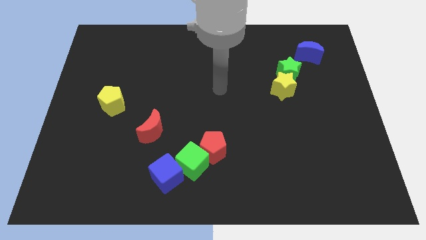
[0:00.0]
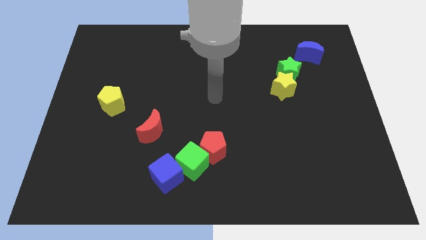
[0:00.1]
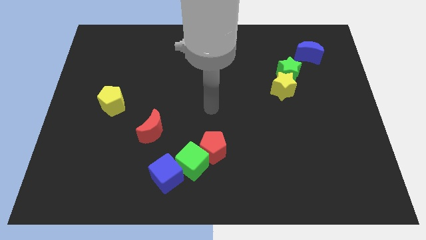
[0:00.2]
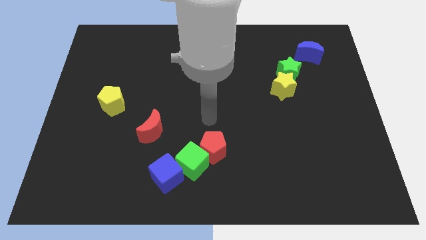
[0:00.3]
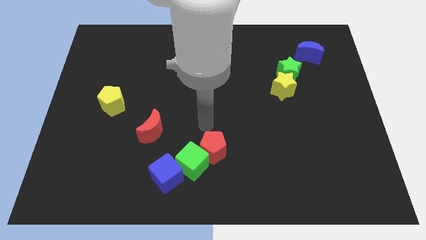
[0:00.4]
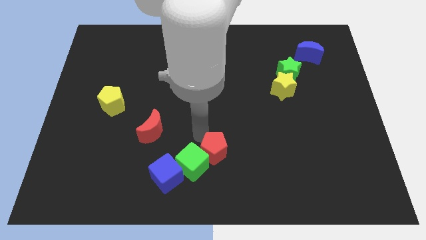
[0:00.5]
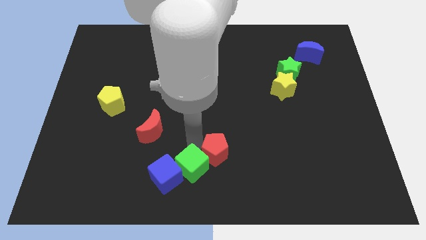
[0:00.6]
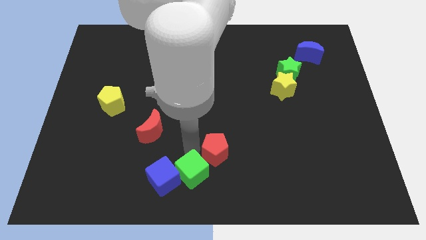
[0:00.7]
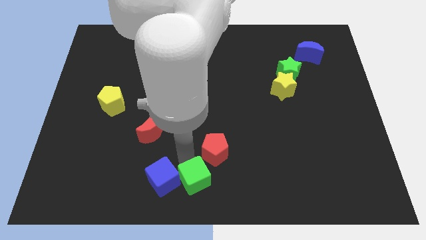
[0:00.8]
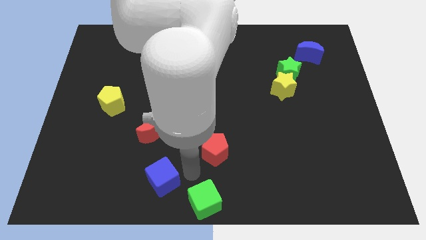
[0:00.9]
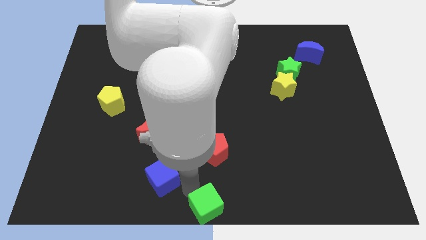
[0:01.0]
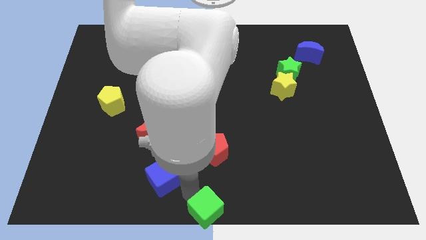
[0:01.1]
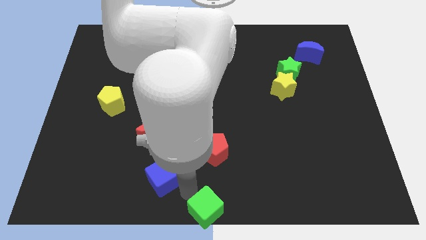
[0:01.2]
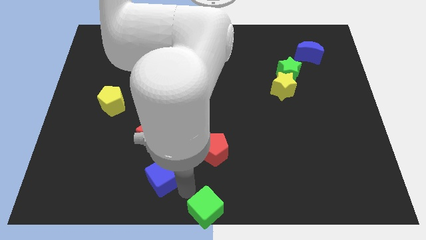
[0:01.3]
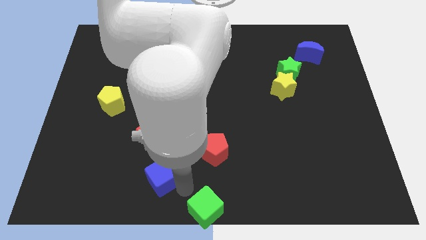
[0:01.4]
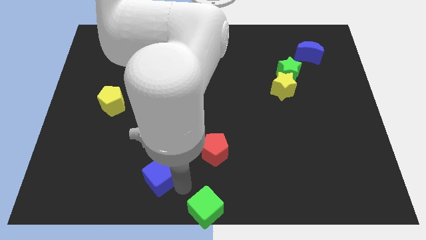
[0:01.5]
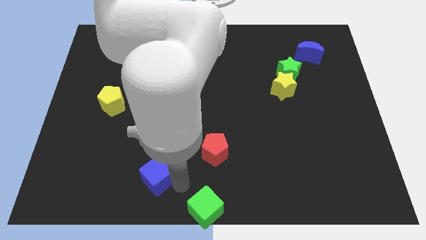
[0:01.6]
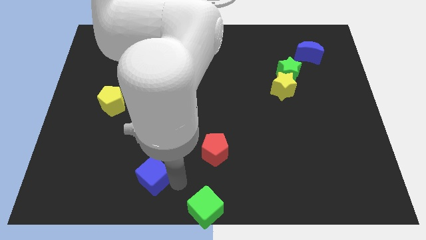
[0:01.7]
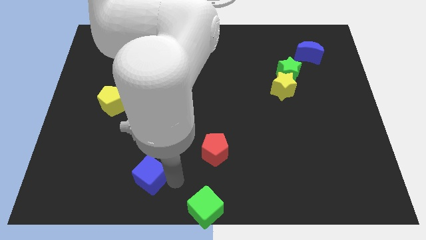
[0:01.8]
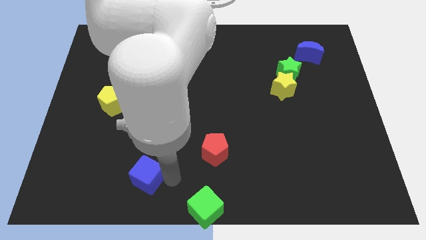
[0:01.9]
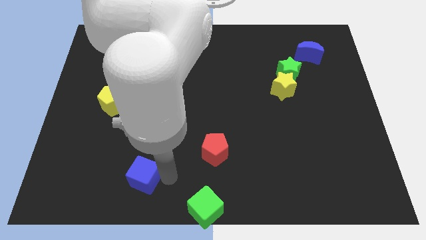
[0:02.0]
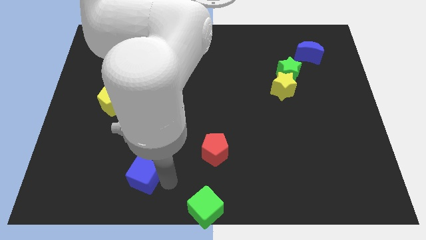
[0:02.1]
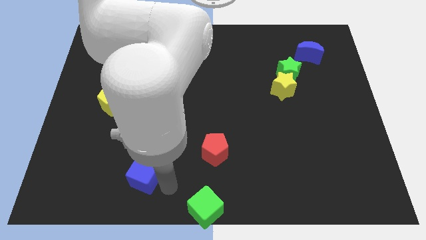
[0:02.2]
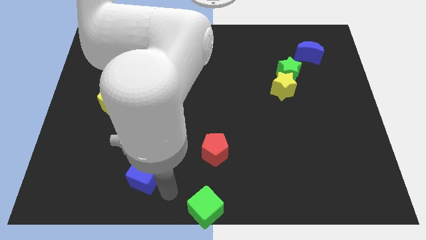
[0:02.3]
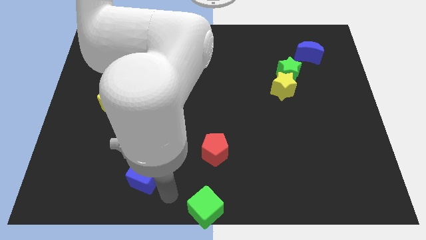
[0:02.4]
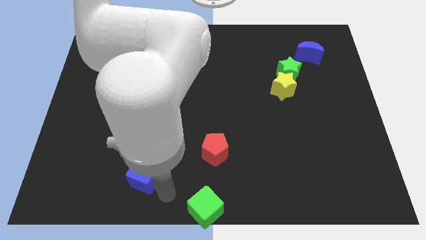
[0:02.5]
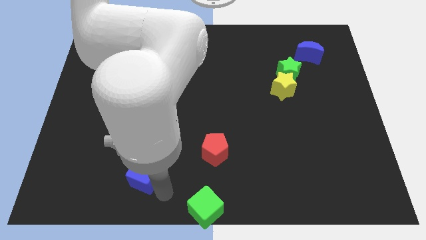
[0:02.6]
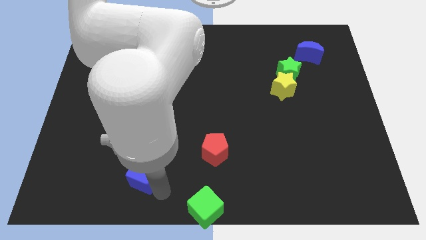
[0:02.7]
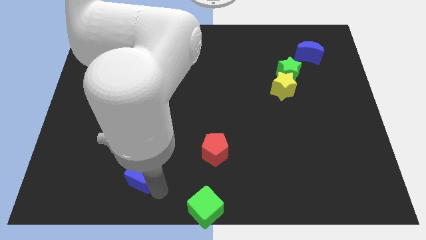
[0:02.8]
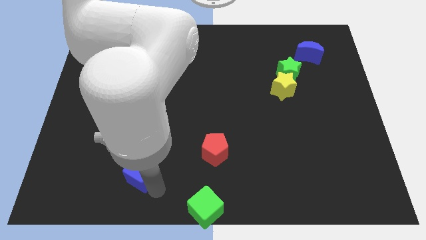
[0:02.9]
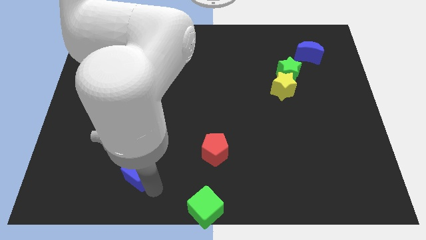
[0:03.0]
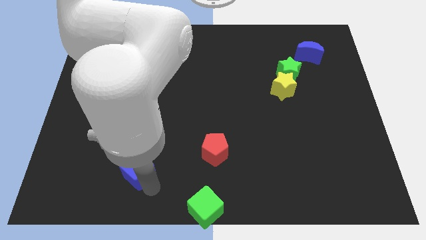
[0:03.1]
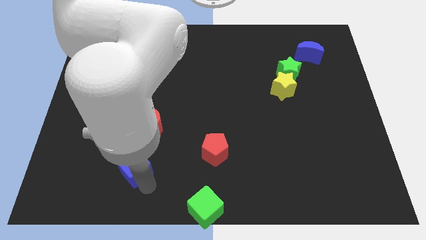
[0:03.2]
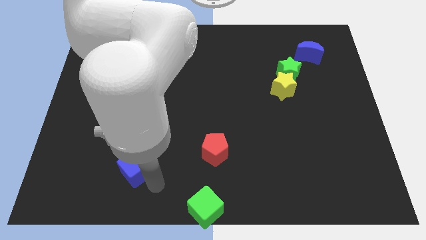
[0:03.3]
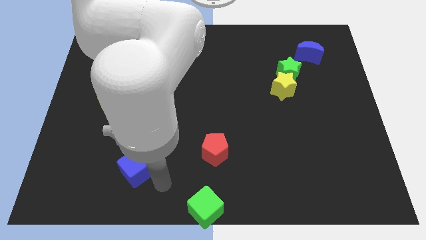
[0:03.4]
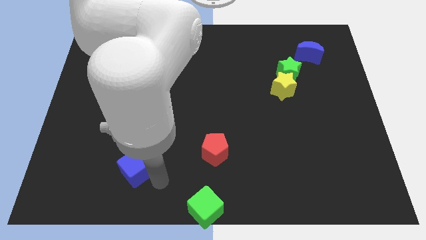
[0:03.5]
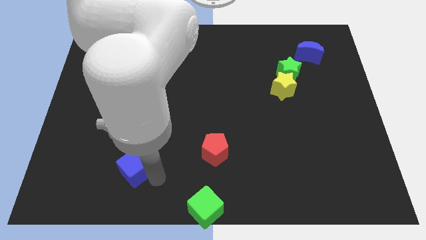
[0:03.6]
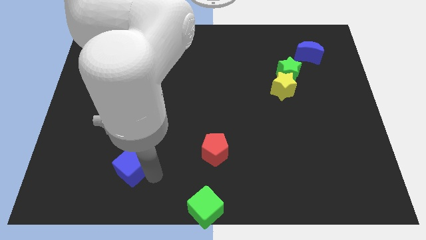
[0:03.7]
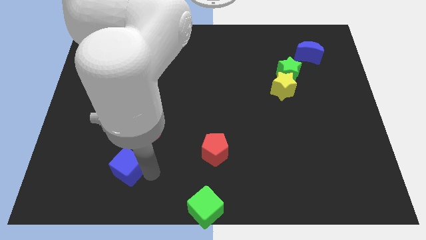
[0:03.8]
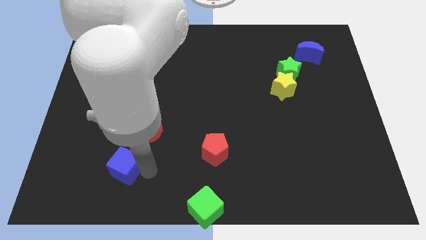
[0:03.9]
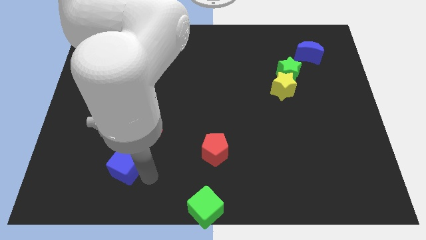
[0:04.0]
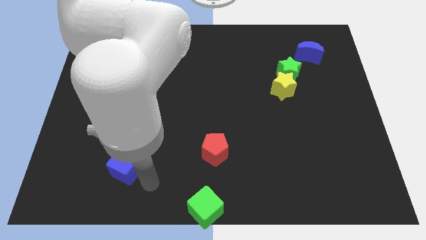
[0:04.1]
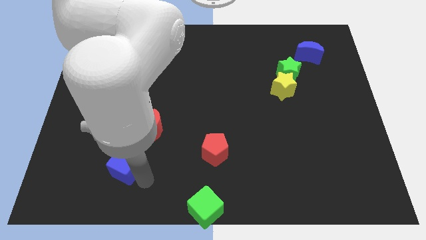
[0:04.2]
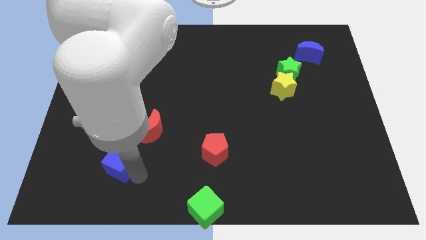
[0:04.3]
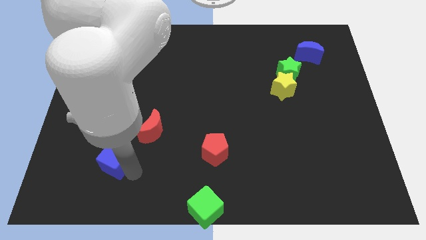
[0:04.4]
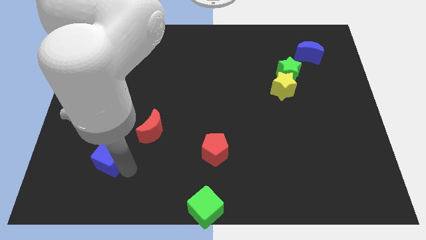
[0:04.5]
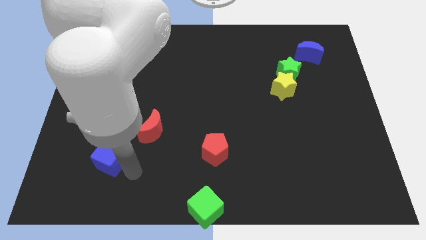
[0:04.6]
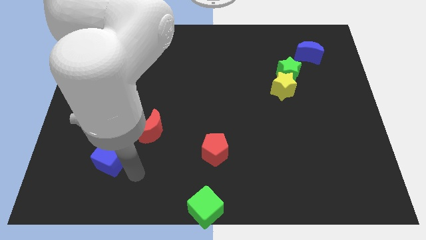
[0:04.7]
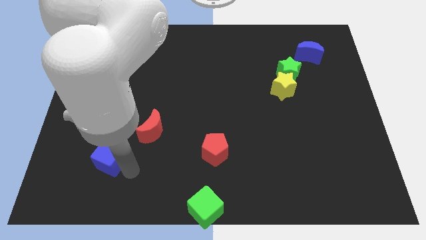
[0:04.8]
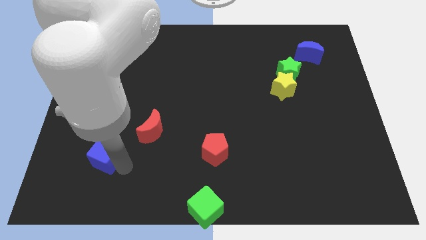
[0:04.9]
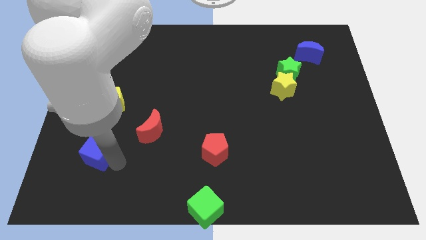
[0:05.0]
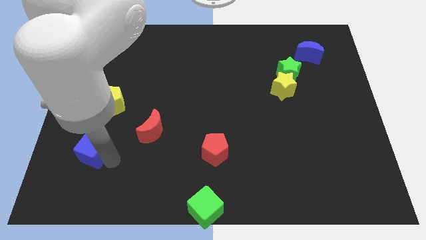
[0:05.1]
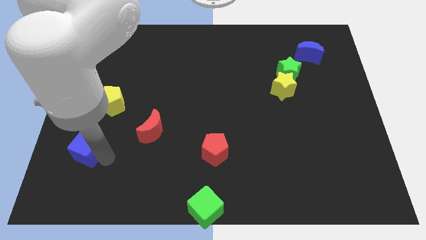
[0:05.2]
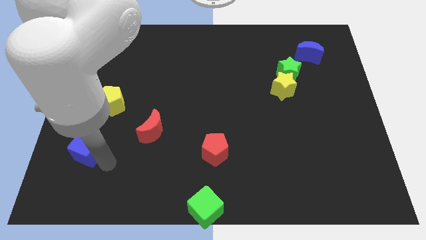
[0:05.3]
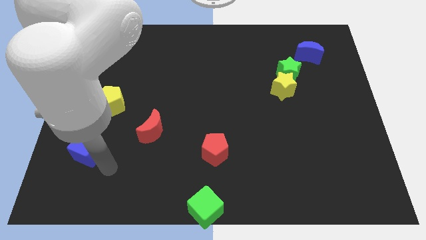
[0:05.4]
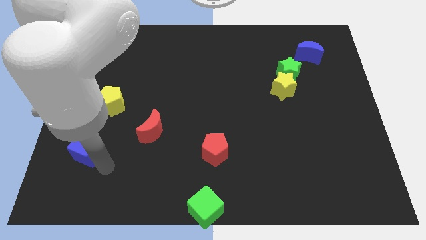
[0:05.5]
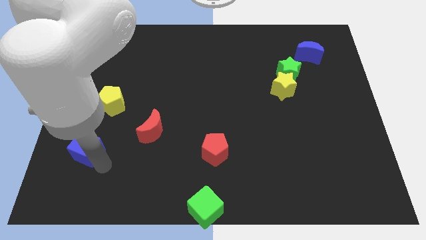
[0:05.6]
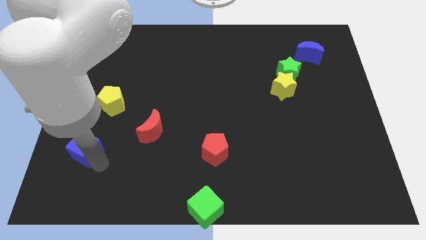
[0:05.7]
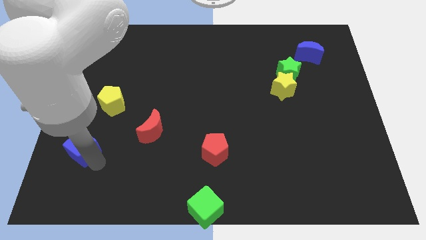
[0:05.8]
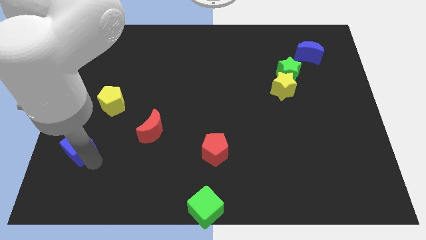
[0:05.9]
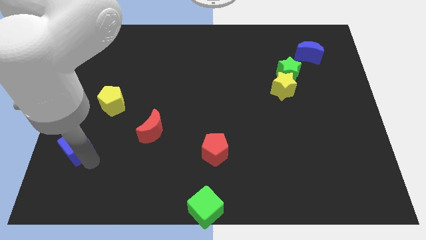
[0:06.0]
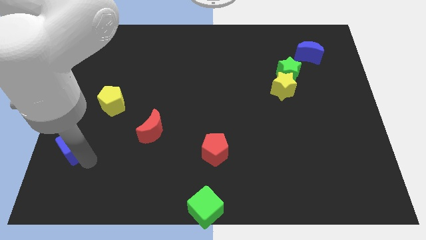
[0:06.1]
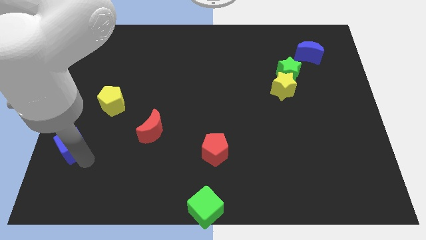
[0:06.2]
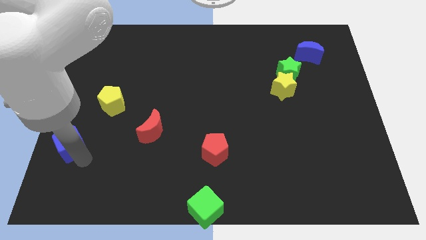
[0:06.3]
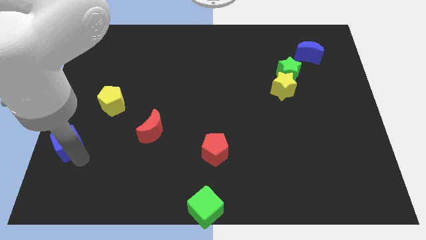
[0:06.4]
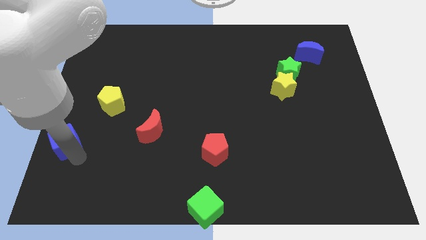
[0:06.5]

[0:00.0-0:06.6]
put the blue cube to the left side
